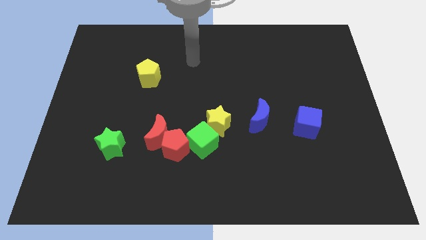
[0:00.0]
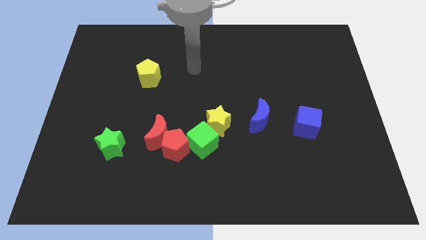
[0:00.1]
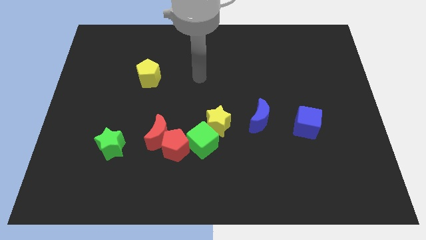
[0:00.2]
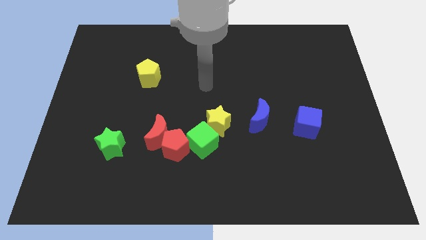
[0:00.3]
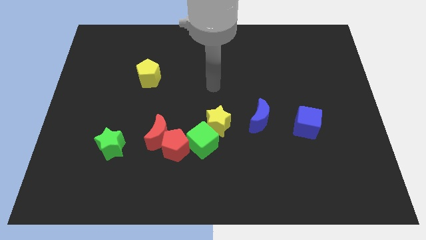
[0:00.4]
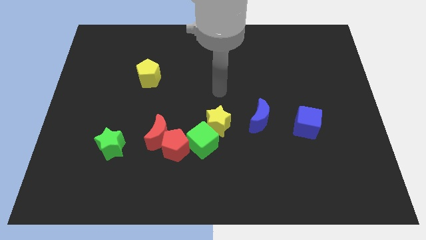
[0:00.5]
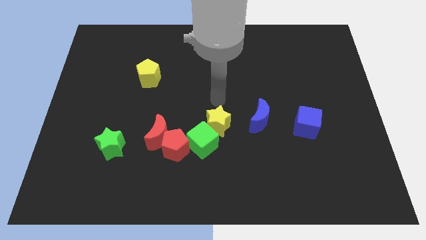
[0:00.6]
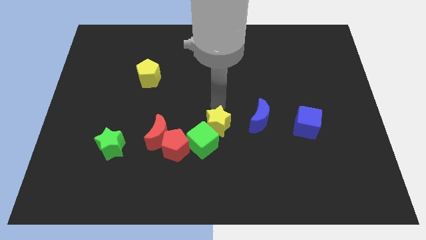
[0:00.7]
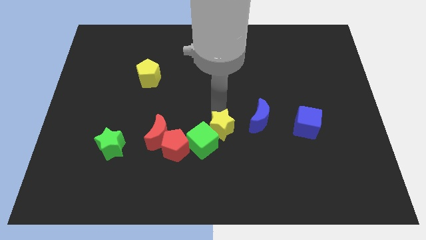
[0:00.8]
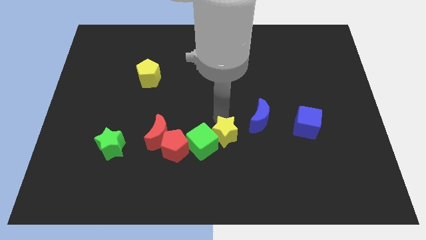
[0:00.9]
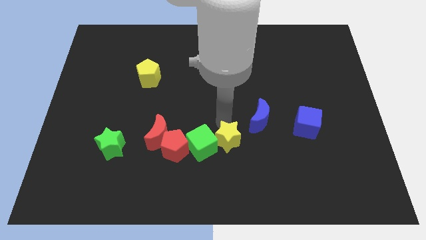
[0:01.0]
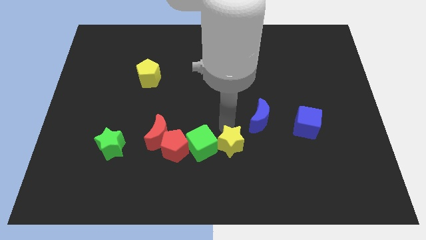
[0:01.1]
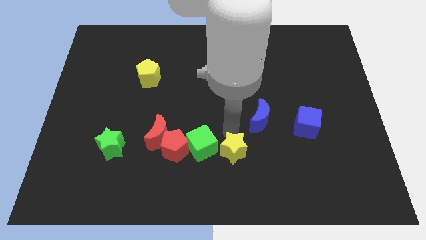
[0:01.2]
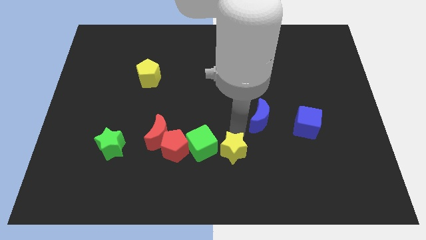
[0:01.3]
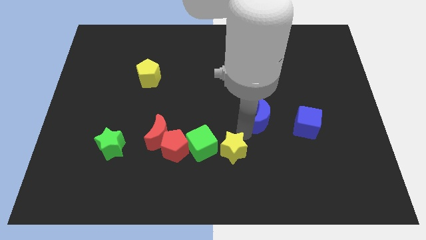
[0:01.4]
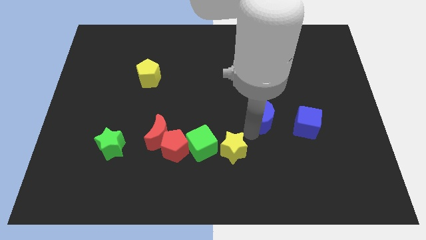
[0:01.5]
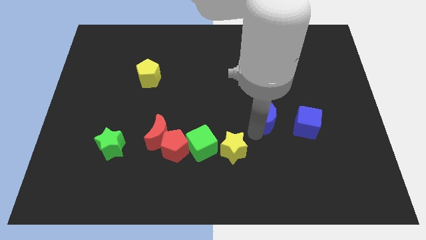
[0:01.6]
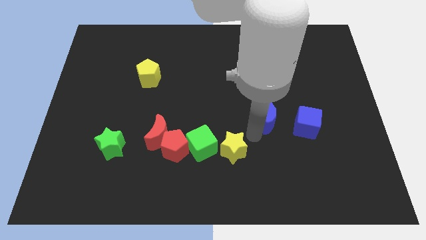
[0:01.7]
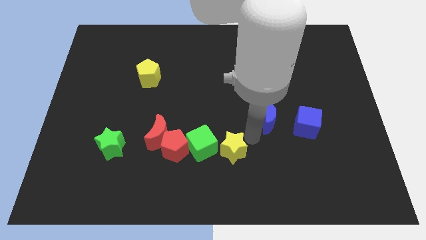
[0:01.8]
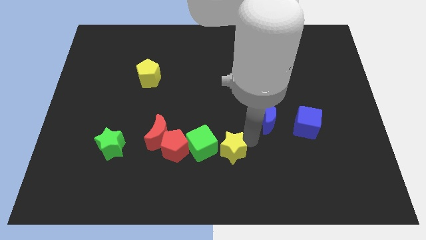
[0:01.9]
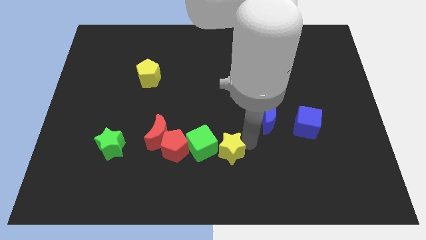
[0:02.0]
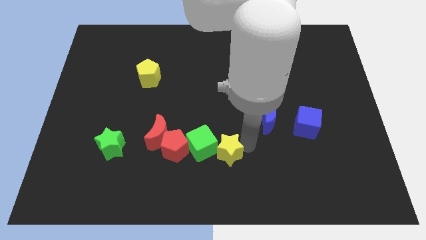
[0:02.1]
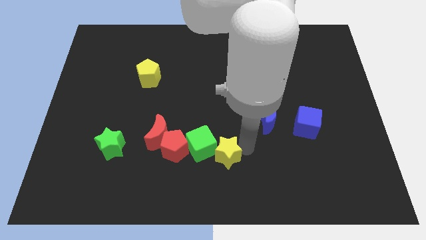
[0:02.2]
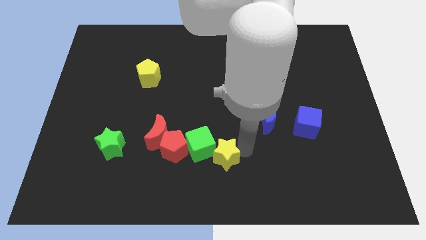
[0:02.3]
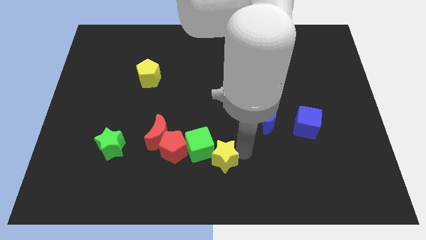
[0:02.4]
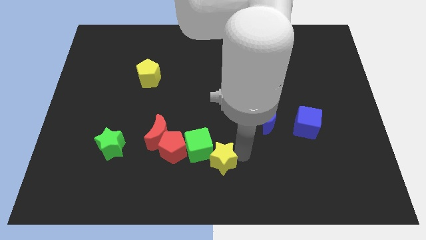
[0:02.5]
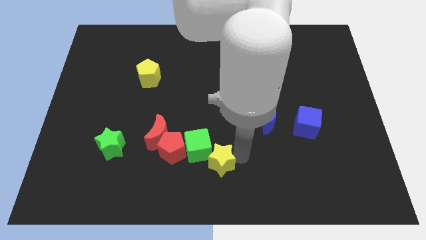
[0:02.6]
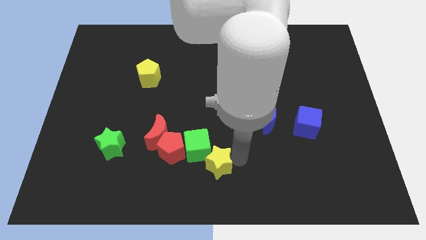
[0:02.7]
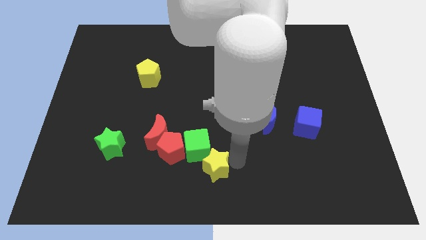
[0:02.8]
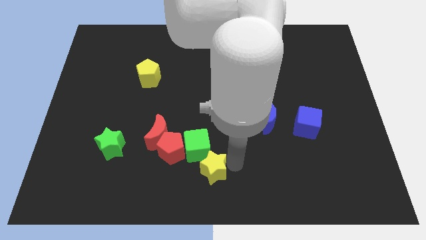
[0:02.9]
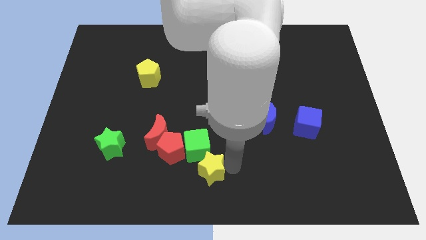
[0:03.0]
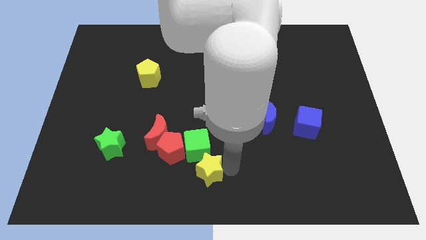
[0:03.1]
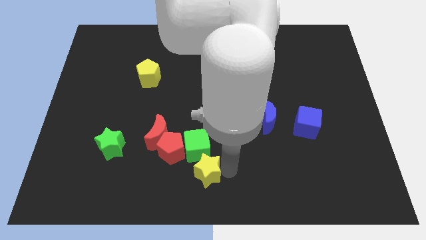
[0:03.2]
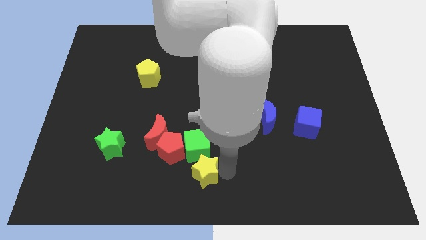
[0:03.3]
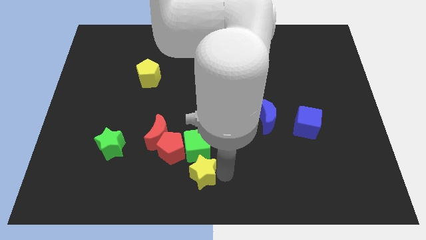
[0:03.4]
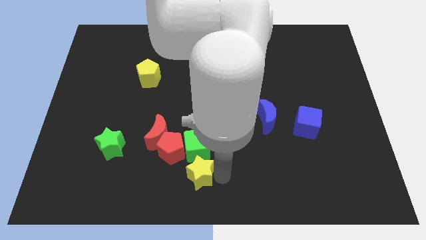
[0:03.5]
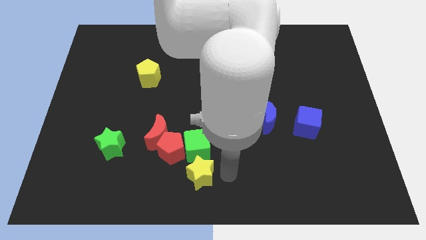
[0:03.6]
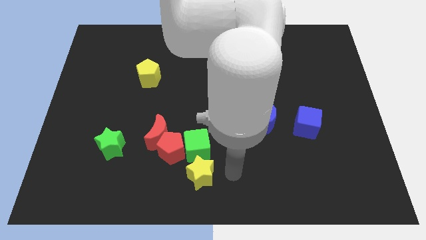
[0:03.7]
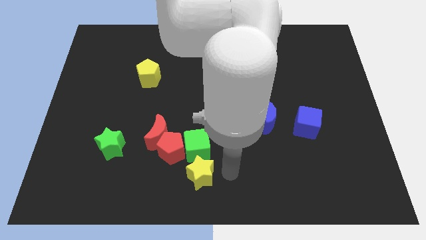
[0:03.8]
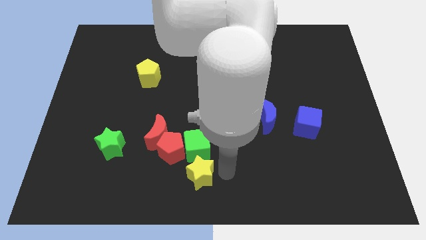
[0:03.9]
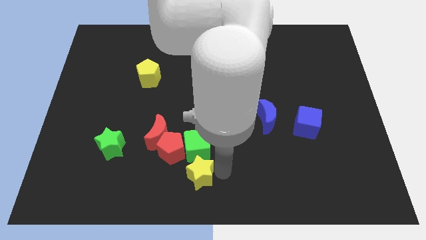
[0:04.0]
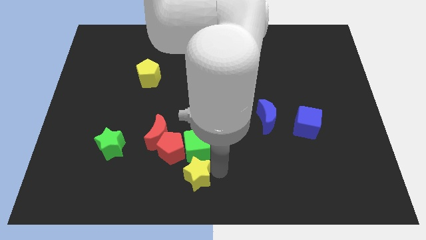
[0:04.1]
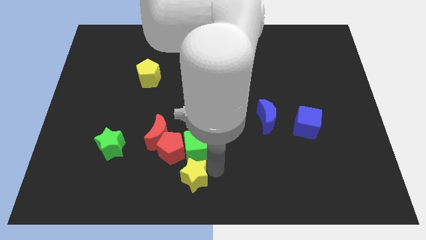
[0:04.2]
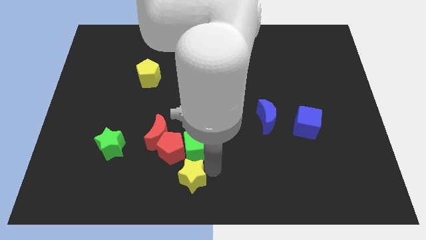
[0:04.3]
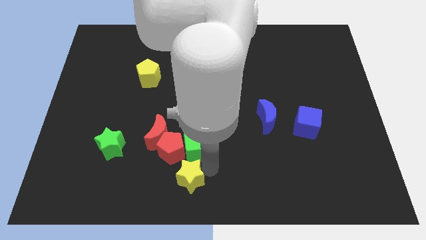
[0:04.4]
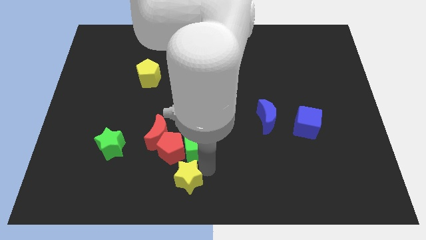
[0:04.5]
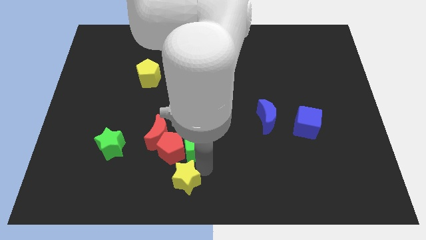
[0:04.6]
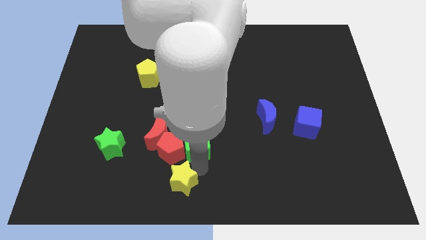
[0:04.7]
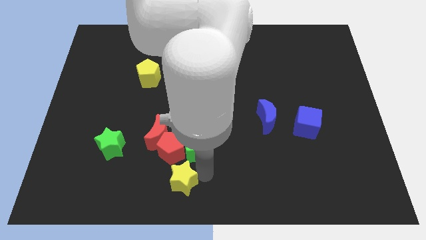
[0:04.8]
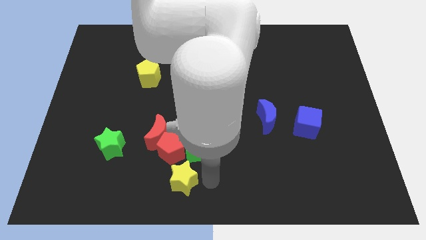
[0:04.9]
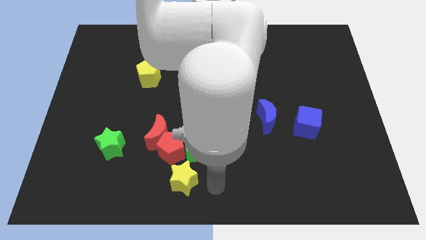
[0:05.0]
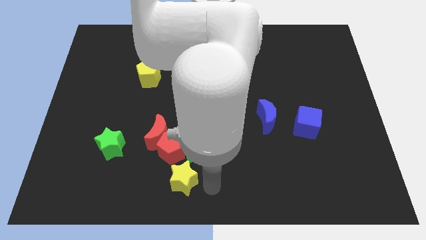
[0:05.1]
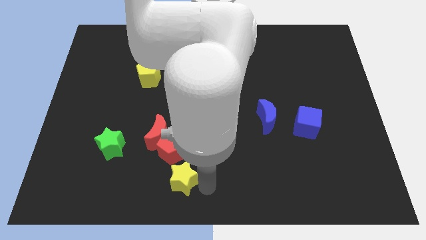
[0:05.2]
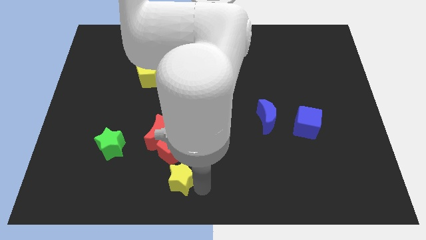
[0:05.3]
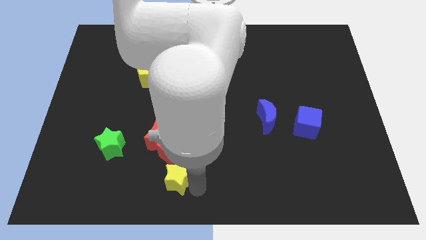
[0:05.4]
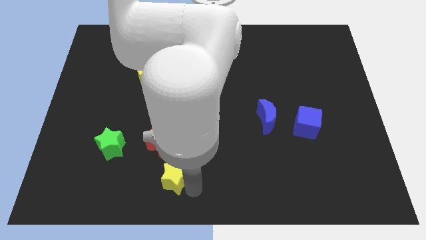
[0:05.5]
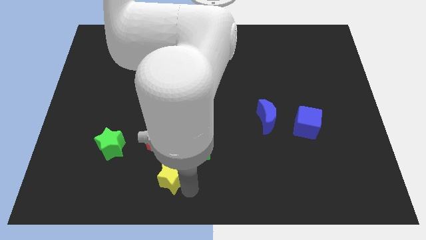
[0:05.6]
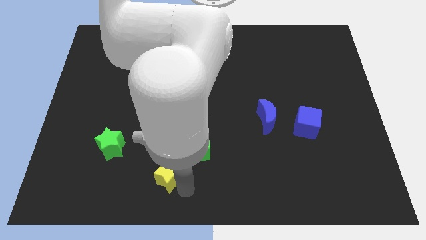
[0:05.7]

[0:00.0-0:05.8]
move the yellow star to the bottom left side of the red pentagon

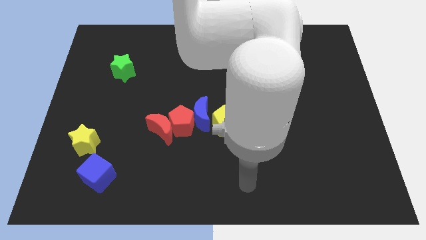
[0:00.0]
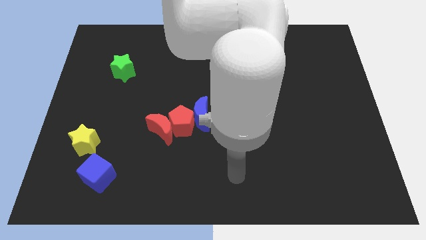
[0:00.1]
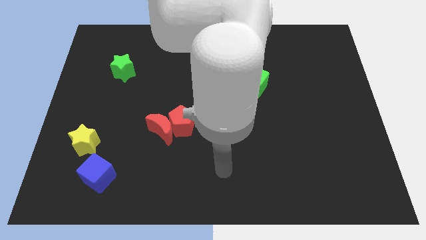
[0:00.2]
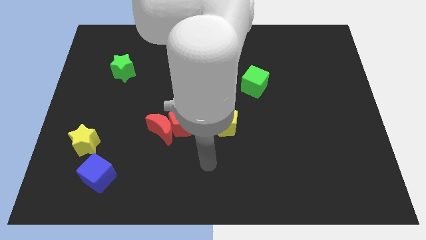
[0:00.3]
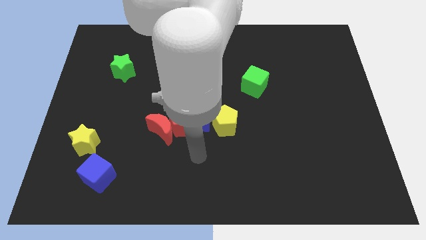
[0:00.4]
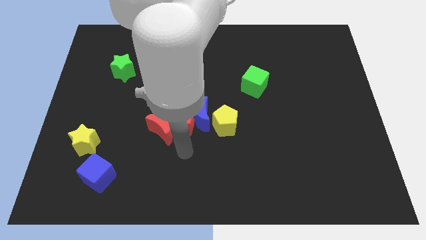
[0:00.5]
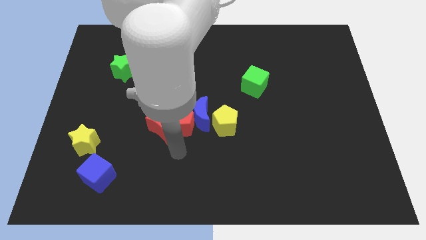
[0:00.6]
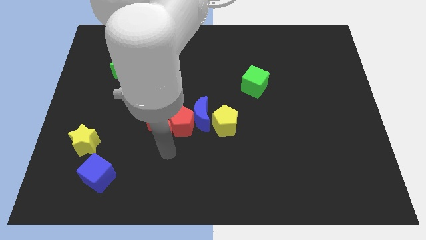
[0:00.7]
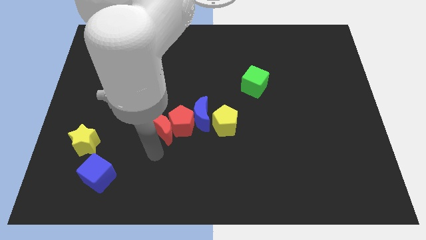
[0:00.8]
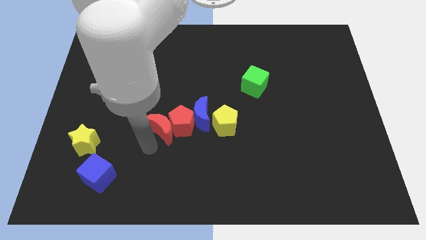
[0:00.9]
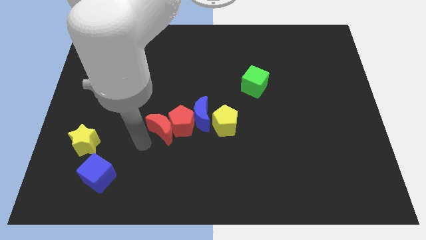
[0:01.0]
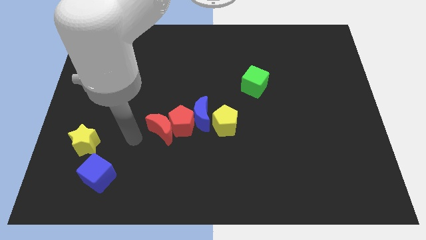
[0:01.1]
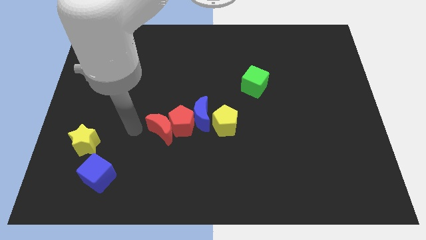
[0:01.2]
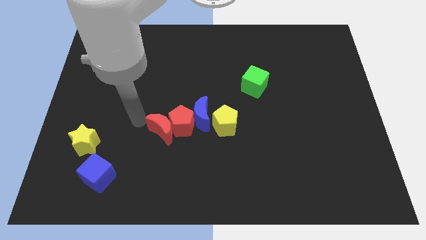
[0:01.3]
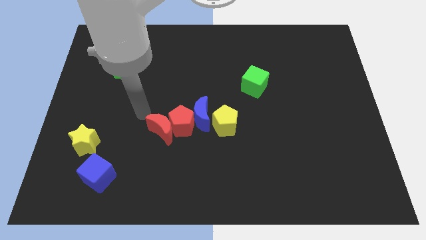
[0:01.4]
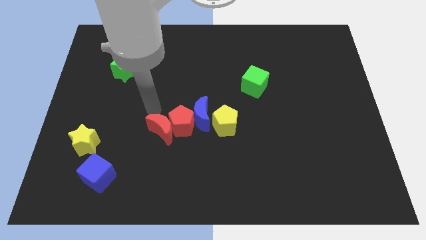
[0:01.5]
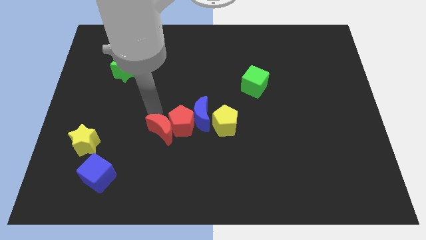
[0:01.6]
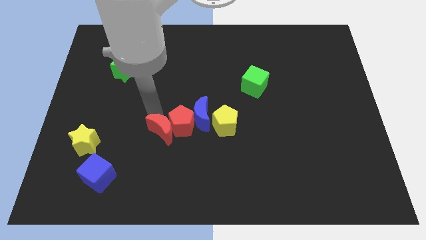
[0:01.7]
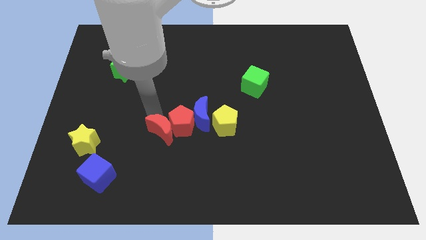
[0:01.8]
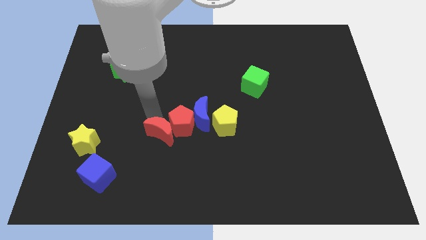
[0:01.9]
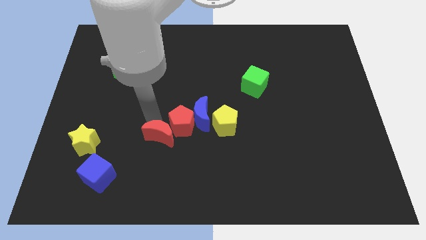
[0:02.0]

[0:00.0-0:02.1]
put the red moon to the bottom side of the red pentagon
